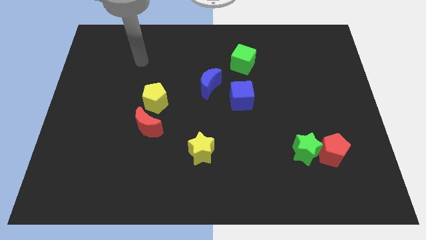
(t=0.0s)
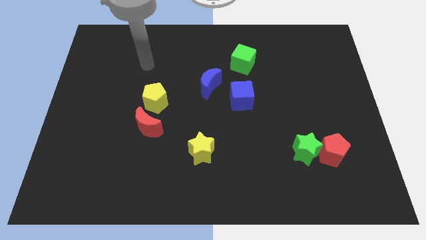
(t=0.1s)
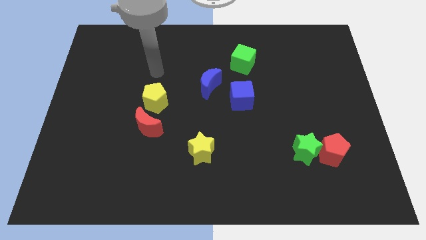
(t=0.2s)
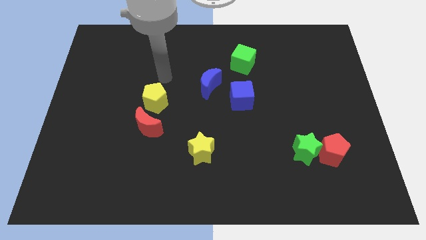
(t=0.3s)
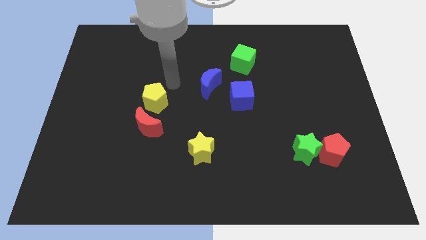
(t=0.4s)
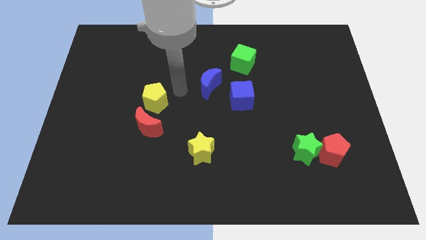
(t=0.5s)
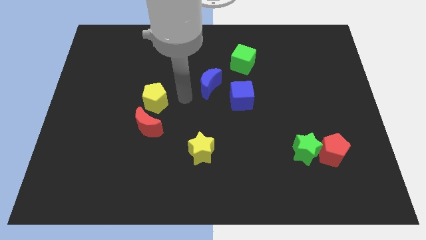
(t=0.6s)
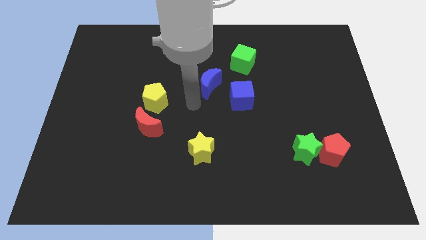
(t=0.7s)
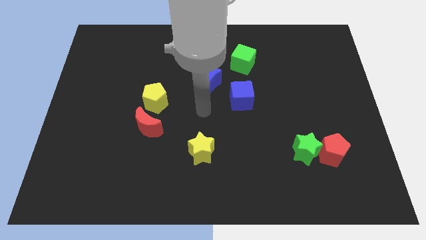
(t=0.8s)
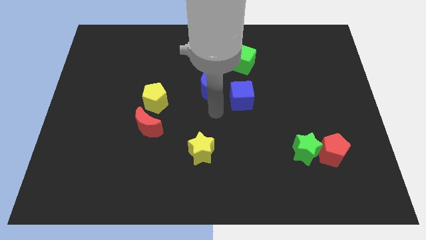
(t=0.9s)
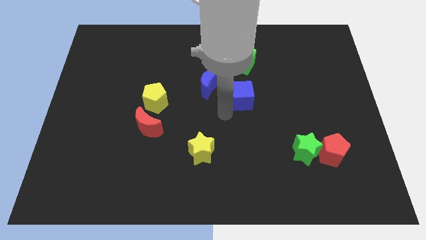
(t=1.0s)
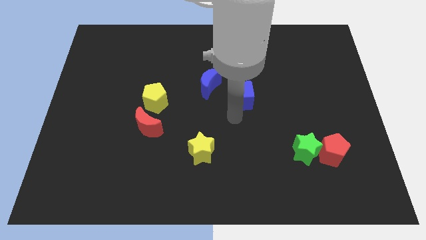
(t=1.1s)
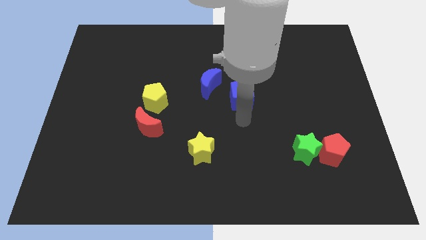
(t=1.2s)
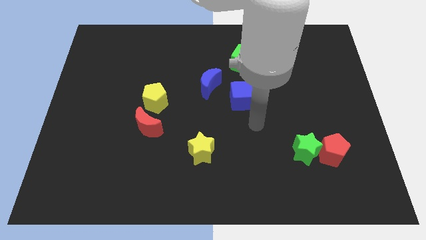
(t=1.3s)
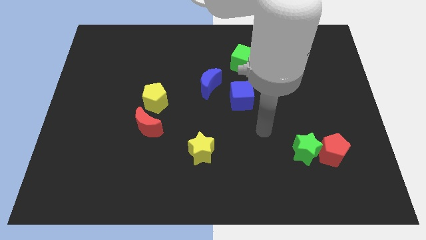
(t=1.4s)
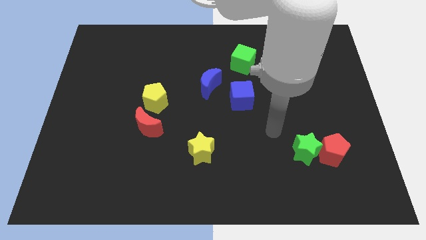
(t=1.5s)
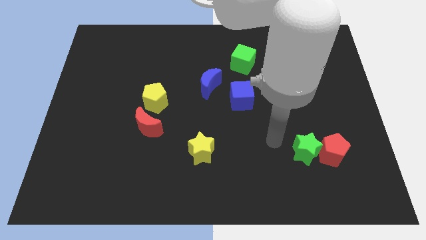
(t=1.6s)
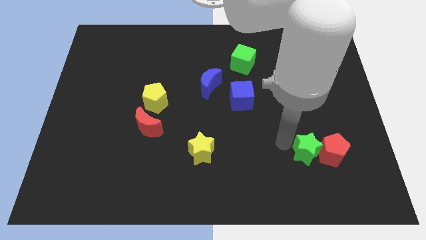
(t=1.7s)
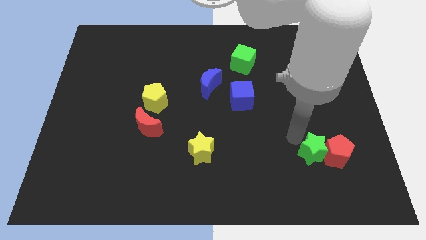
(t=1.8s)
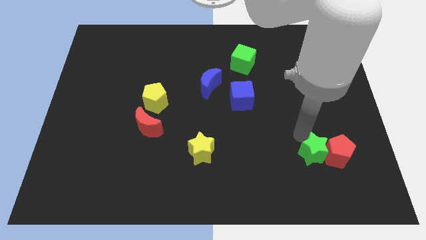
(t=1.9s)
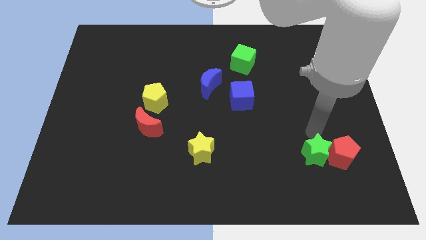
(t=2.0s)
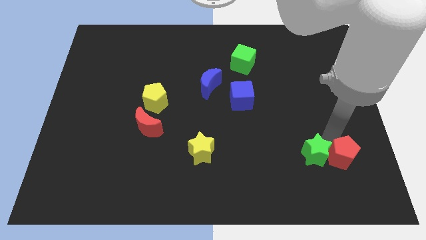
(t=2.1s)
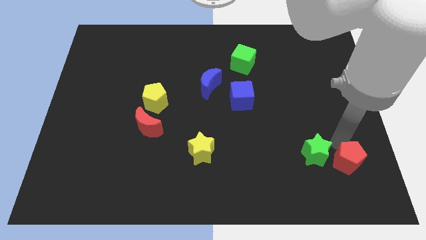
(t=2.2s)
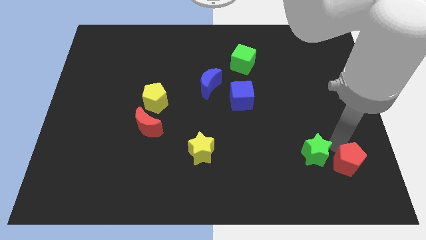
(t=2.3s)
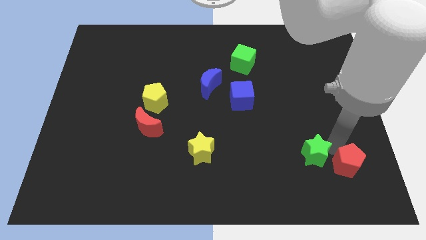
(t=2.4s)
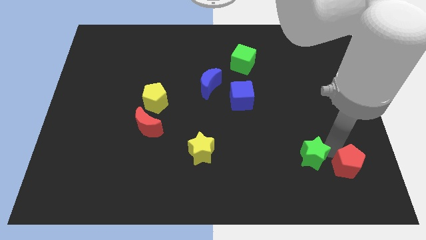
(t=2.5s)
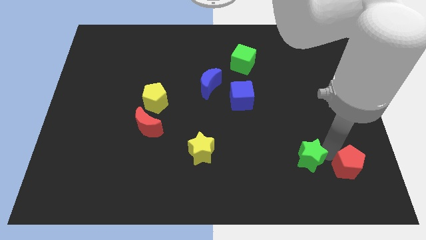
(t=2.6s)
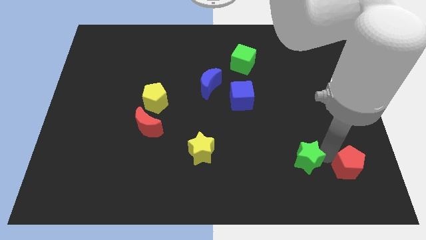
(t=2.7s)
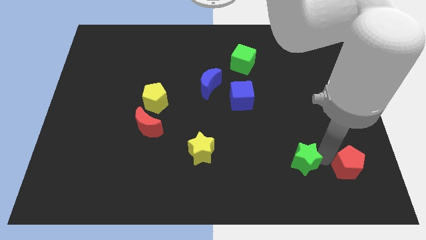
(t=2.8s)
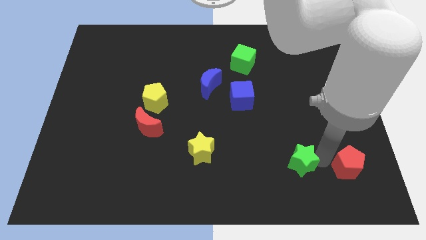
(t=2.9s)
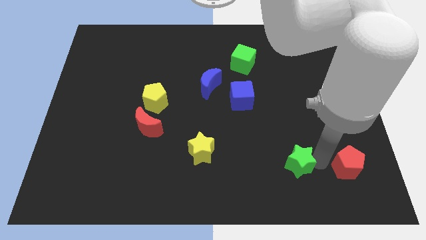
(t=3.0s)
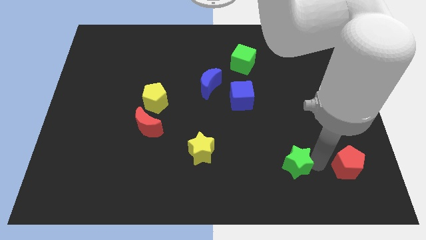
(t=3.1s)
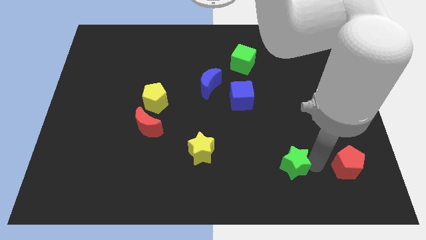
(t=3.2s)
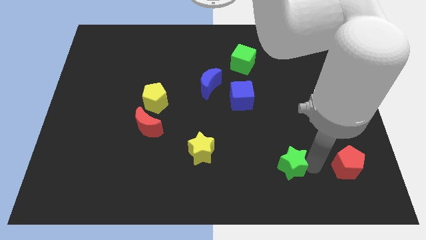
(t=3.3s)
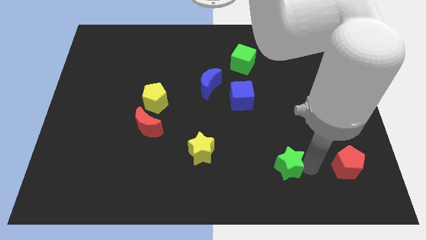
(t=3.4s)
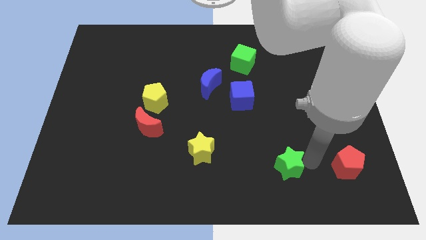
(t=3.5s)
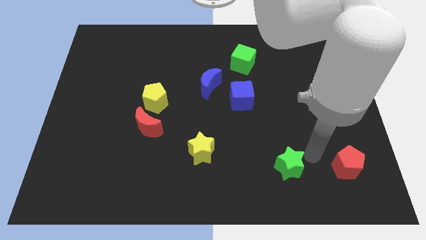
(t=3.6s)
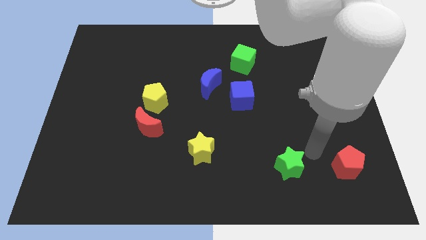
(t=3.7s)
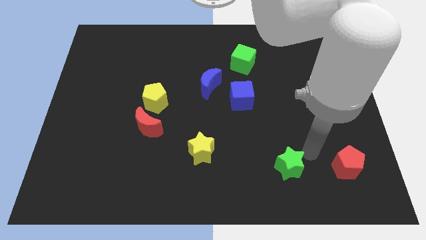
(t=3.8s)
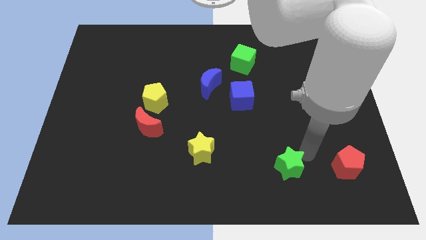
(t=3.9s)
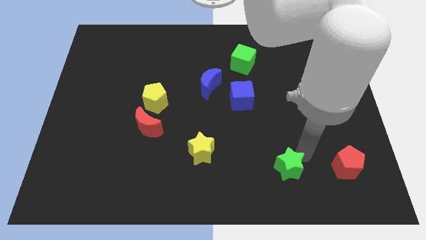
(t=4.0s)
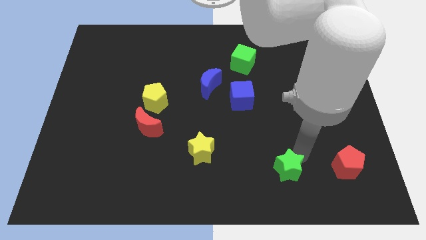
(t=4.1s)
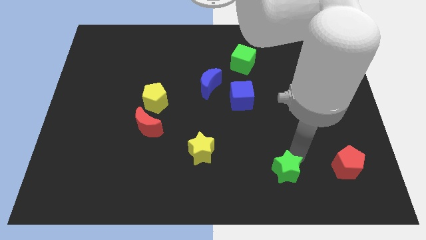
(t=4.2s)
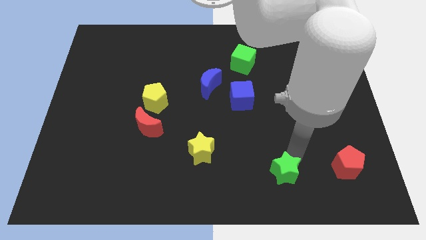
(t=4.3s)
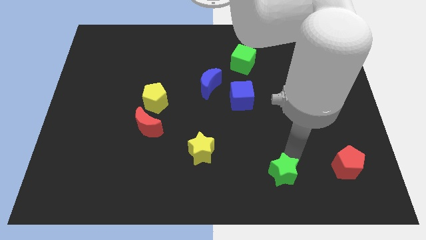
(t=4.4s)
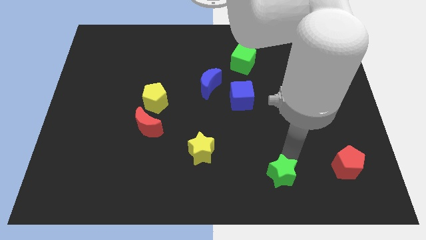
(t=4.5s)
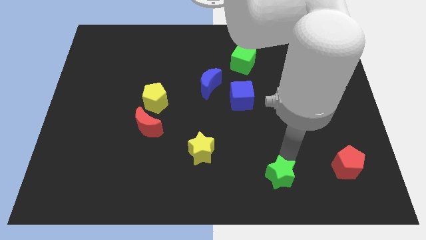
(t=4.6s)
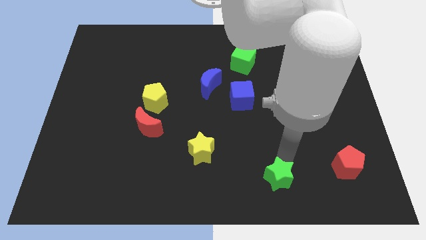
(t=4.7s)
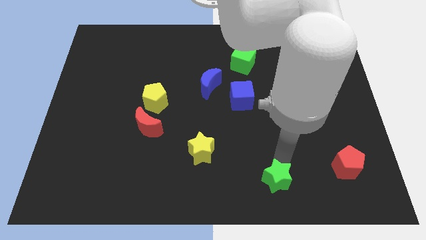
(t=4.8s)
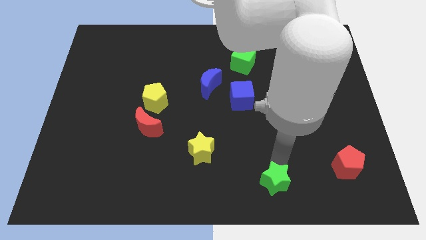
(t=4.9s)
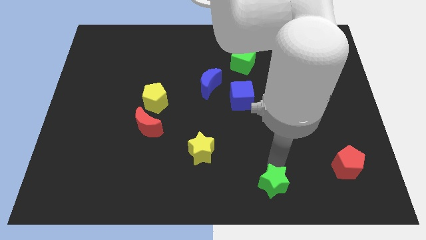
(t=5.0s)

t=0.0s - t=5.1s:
move the green star to the bottom side

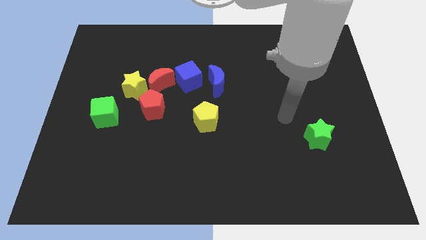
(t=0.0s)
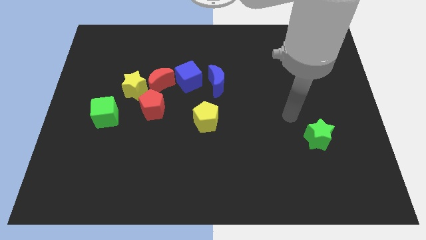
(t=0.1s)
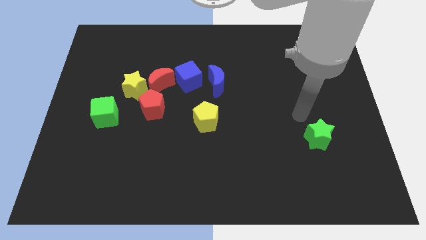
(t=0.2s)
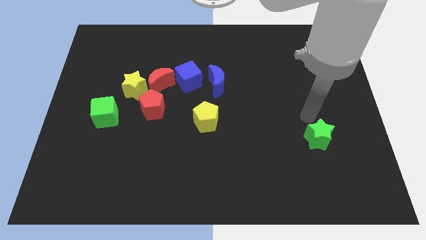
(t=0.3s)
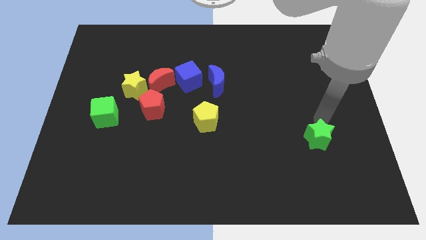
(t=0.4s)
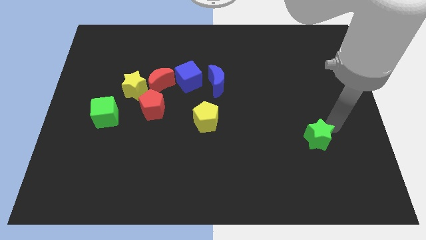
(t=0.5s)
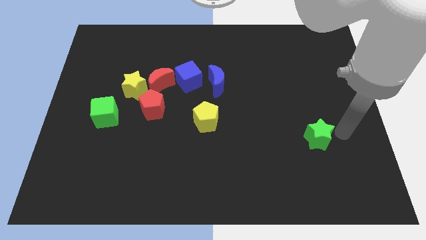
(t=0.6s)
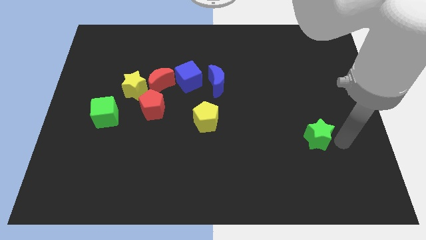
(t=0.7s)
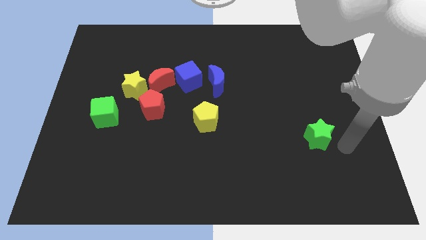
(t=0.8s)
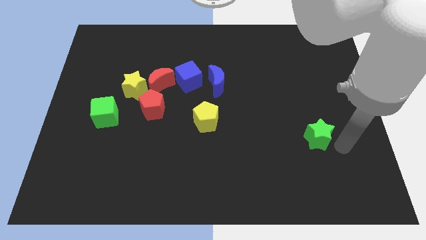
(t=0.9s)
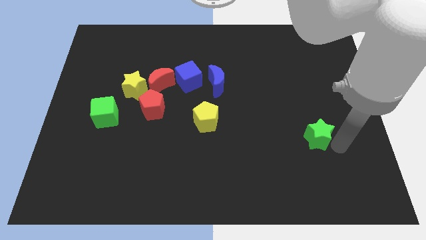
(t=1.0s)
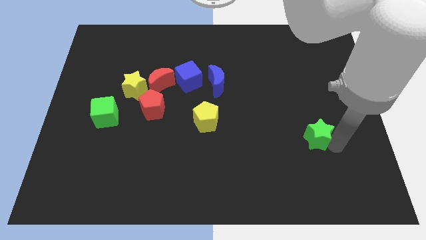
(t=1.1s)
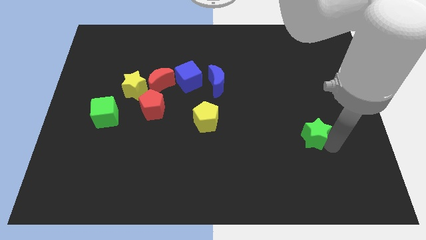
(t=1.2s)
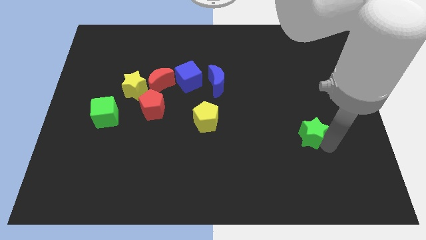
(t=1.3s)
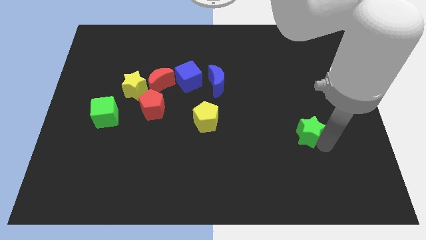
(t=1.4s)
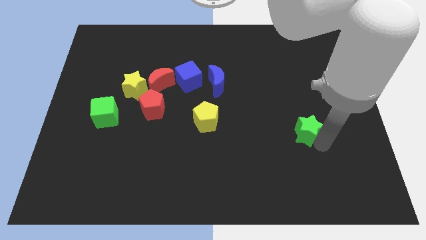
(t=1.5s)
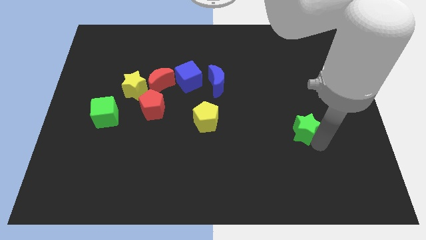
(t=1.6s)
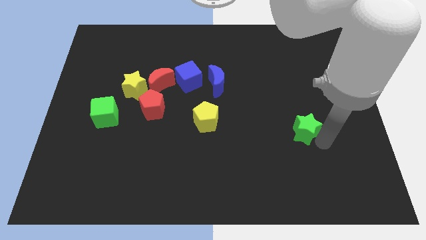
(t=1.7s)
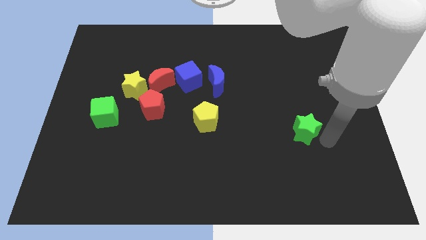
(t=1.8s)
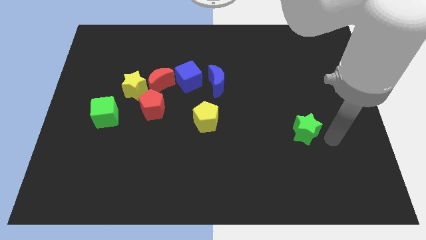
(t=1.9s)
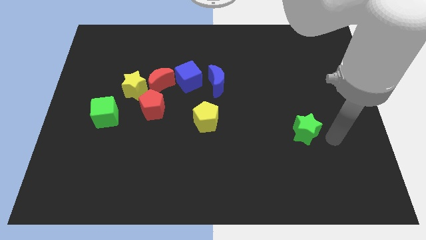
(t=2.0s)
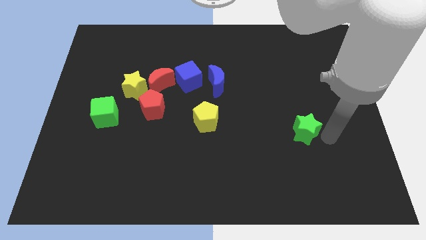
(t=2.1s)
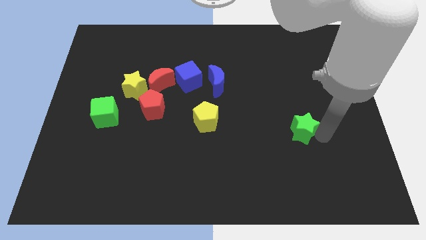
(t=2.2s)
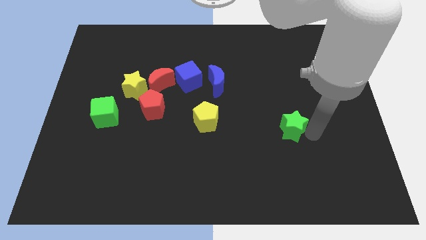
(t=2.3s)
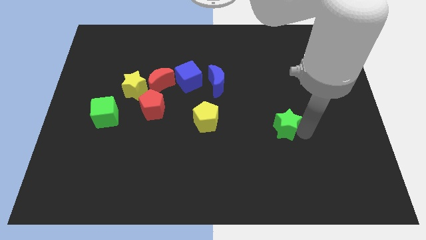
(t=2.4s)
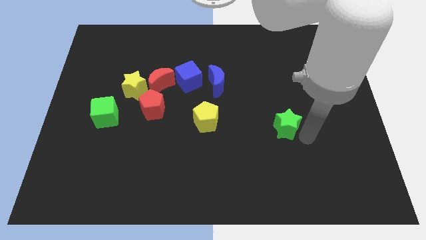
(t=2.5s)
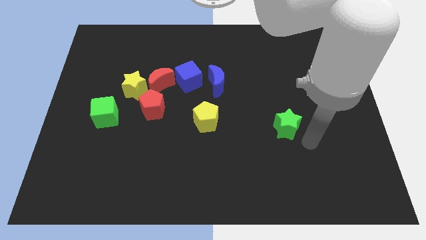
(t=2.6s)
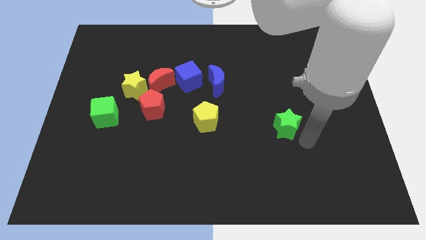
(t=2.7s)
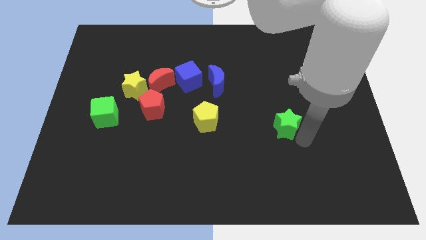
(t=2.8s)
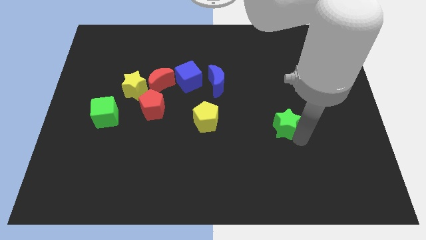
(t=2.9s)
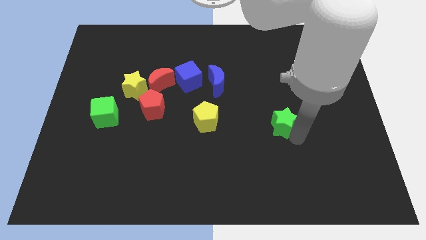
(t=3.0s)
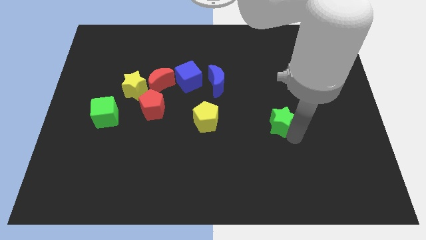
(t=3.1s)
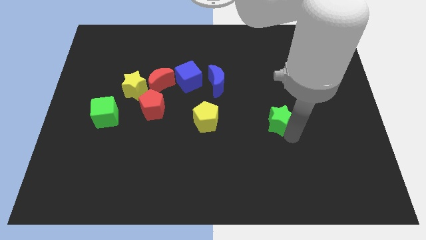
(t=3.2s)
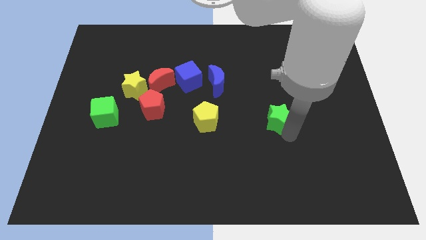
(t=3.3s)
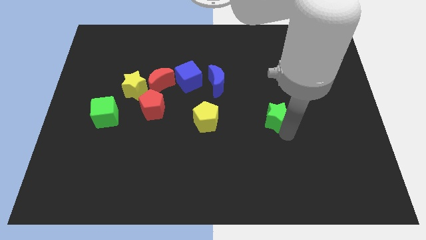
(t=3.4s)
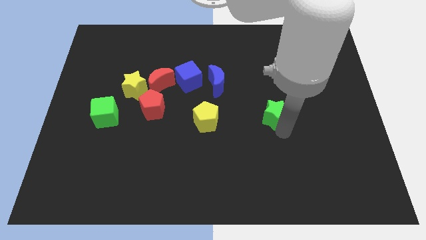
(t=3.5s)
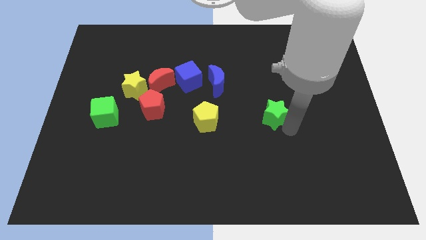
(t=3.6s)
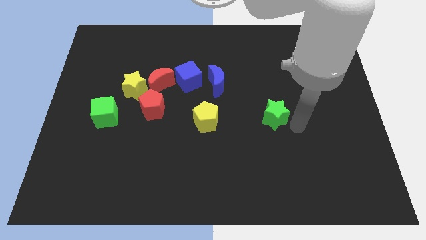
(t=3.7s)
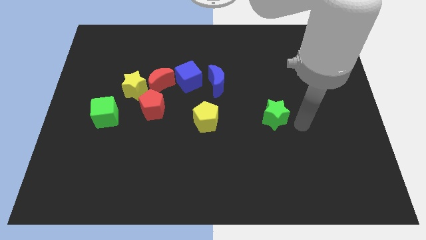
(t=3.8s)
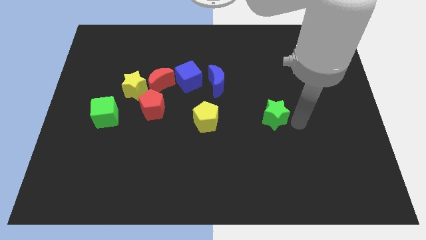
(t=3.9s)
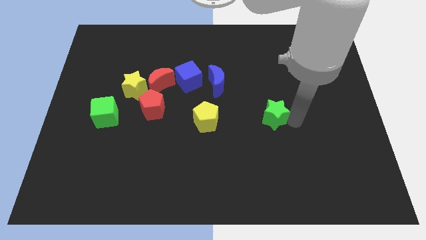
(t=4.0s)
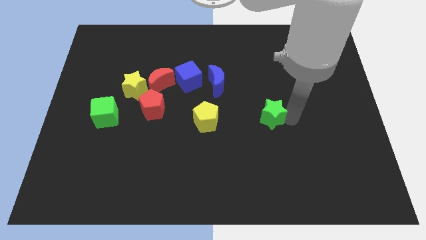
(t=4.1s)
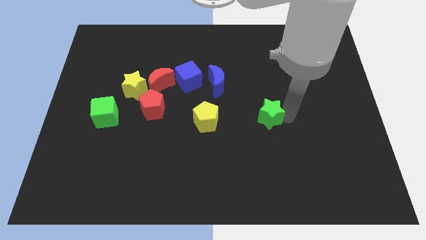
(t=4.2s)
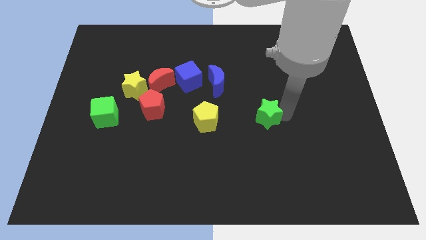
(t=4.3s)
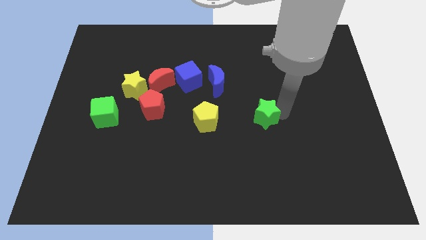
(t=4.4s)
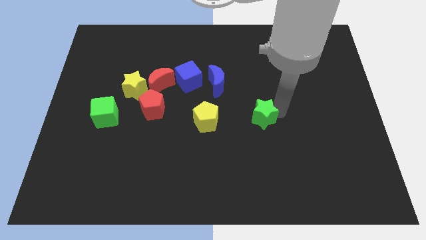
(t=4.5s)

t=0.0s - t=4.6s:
move the green star to the middle of the board
